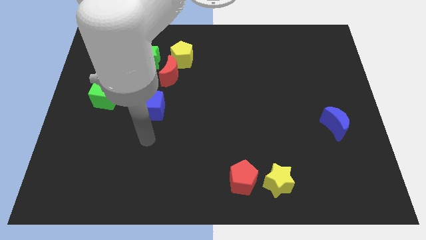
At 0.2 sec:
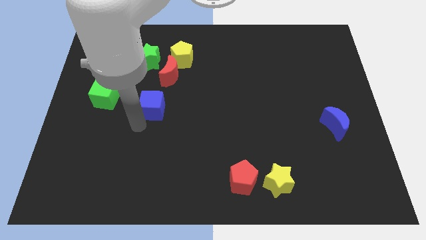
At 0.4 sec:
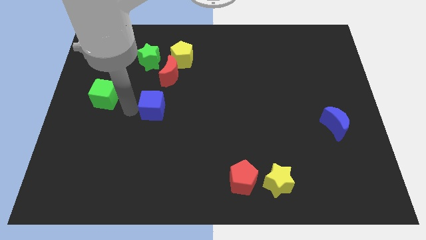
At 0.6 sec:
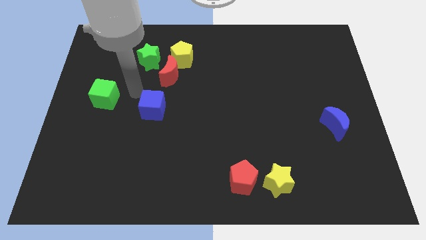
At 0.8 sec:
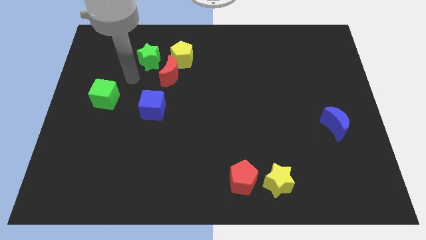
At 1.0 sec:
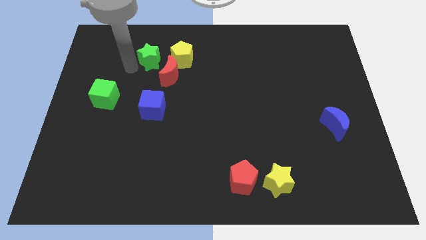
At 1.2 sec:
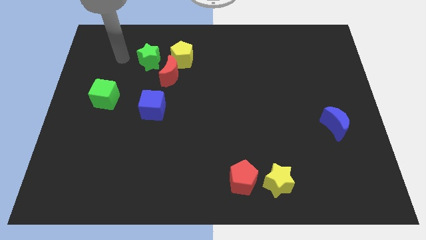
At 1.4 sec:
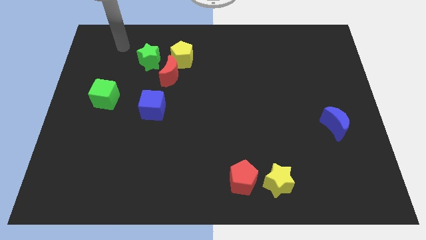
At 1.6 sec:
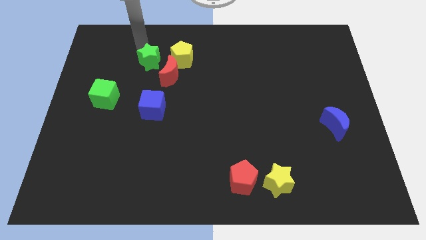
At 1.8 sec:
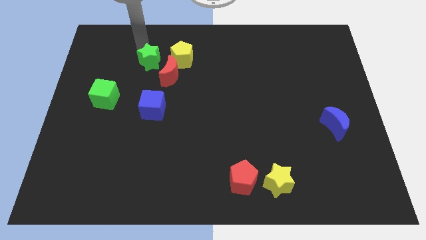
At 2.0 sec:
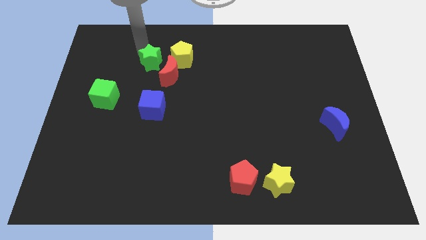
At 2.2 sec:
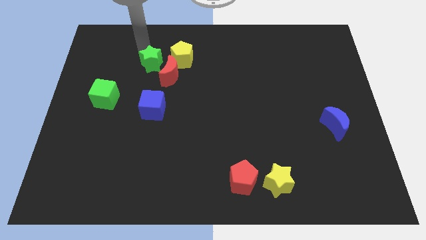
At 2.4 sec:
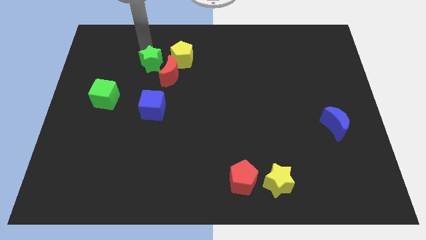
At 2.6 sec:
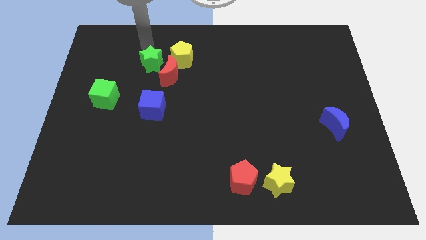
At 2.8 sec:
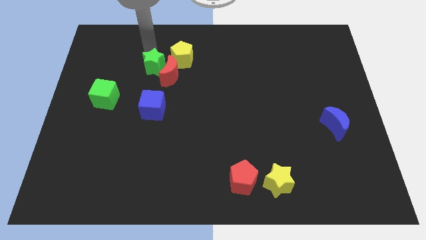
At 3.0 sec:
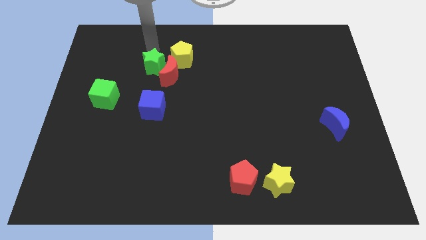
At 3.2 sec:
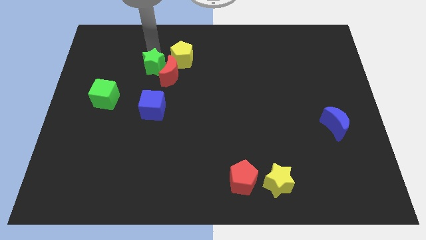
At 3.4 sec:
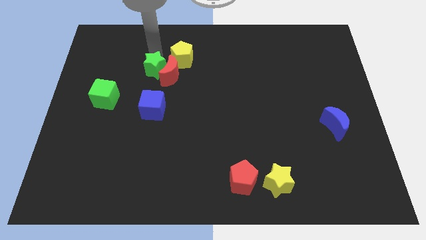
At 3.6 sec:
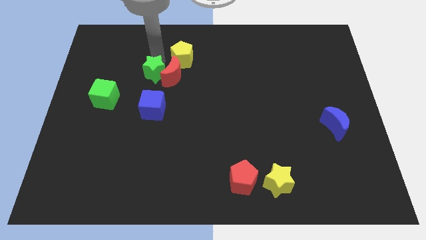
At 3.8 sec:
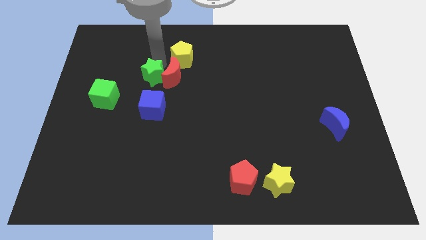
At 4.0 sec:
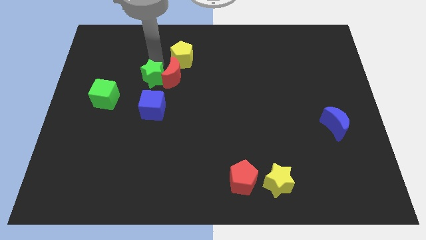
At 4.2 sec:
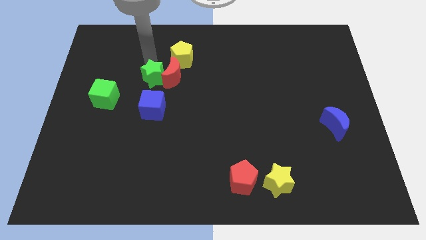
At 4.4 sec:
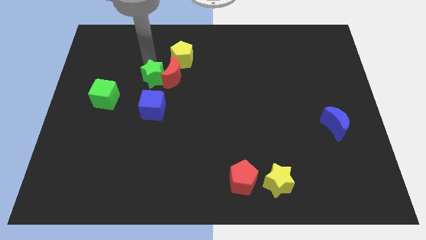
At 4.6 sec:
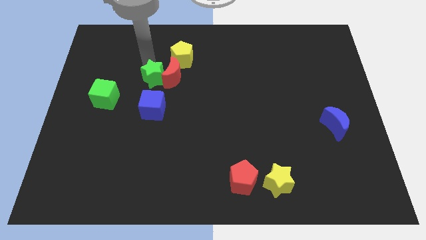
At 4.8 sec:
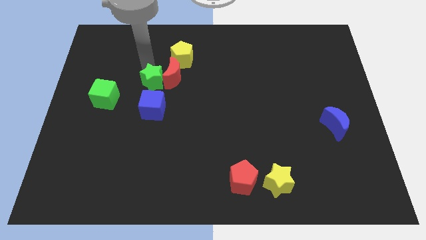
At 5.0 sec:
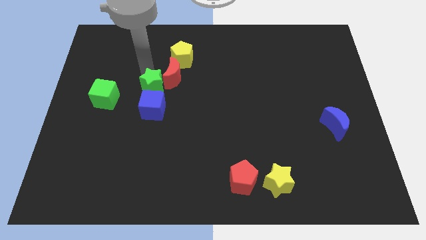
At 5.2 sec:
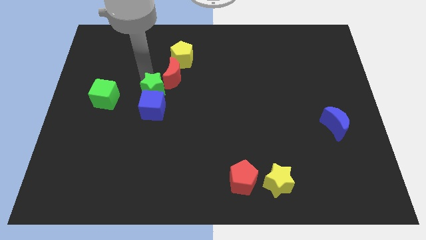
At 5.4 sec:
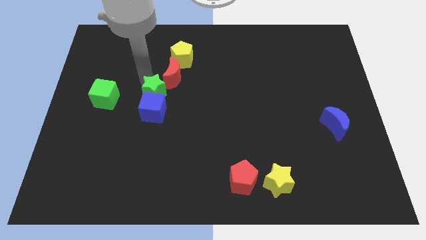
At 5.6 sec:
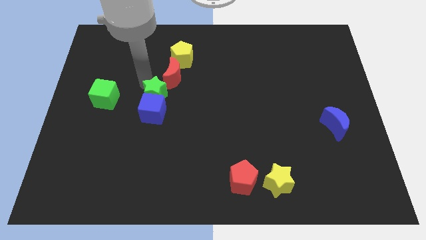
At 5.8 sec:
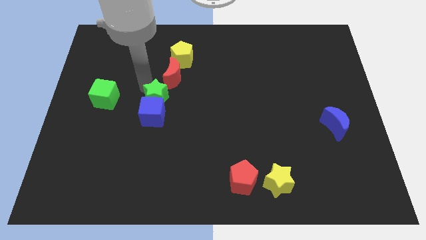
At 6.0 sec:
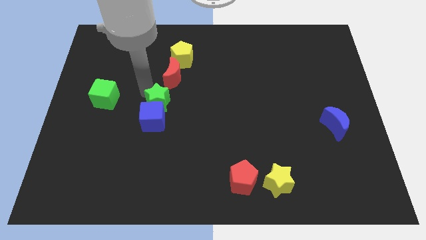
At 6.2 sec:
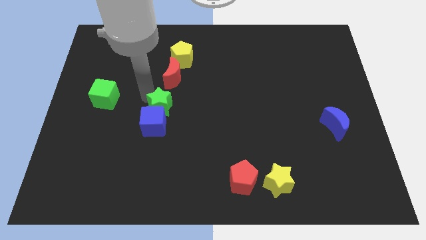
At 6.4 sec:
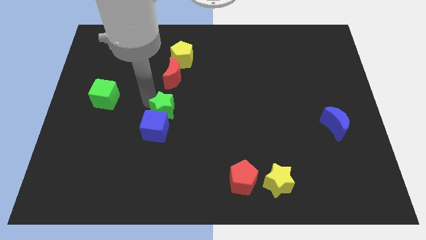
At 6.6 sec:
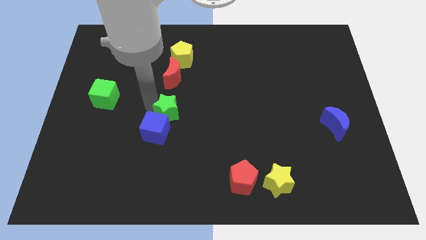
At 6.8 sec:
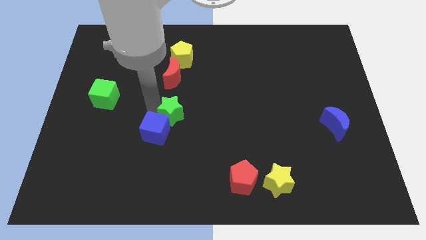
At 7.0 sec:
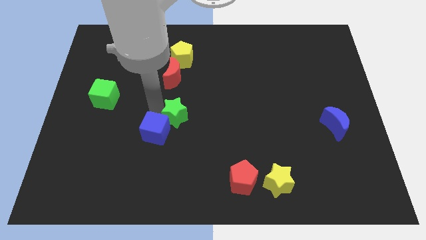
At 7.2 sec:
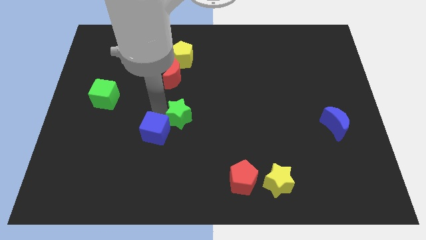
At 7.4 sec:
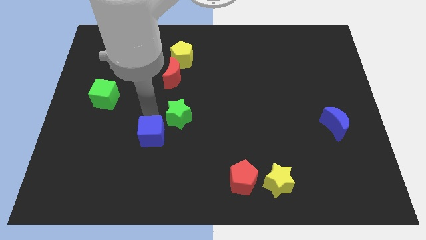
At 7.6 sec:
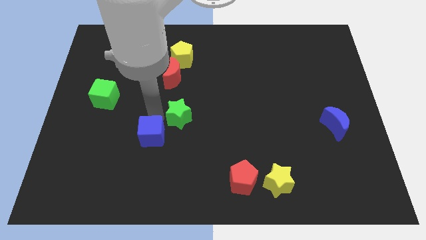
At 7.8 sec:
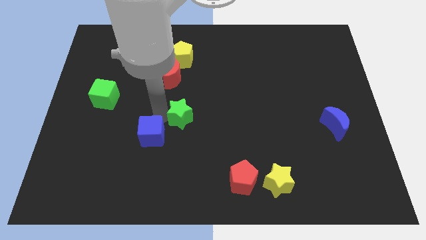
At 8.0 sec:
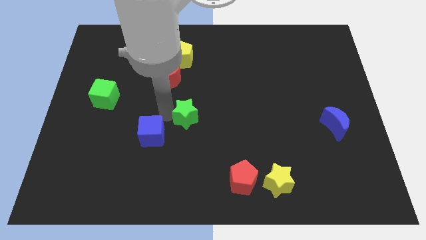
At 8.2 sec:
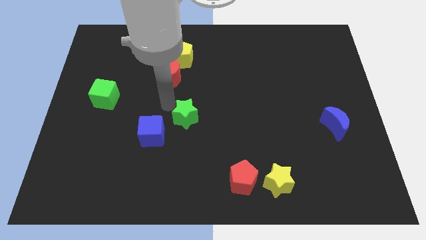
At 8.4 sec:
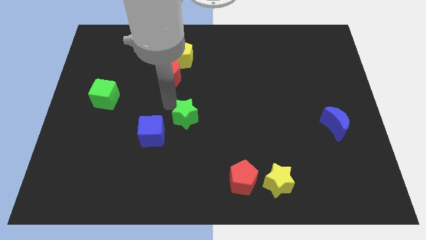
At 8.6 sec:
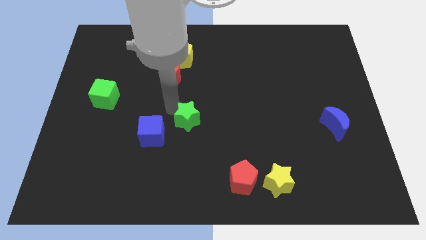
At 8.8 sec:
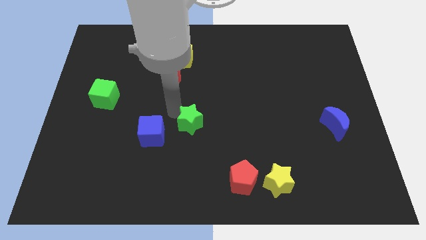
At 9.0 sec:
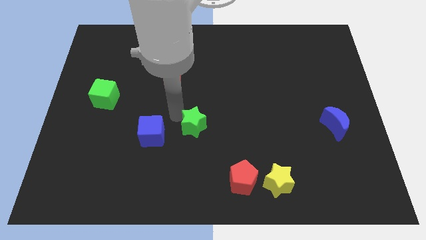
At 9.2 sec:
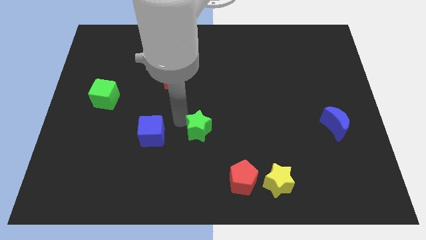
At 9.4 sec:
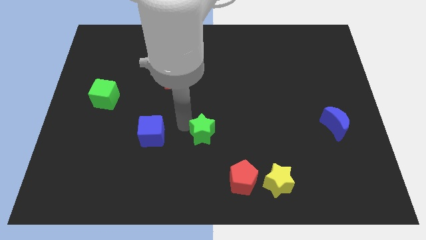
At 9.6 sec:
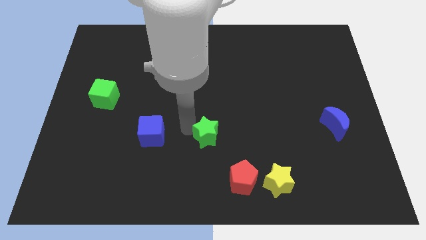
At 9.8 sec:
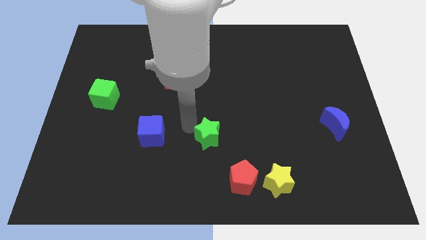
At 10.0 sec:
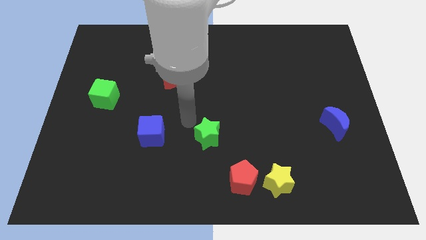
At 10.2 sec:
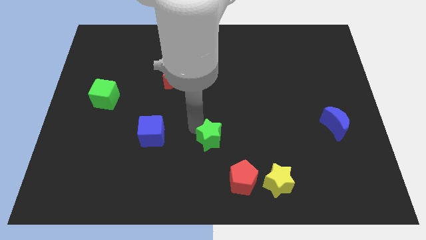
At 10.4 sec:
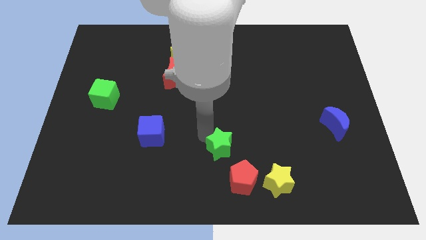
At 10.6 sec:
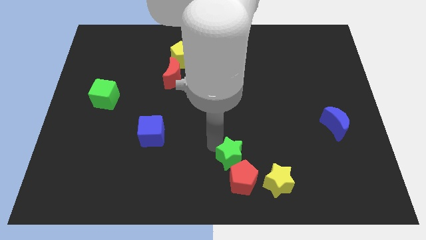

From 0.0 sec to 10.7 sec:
slide the green star to the top left side of the yellow star

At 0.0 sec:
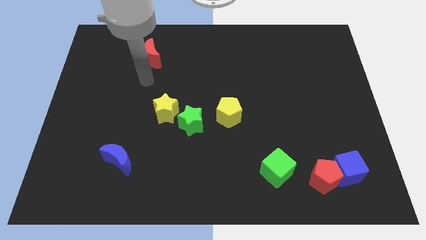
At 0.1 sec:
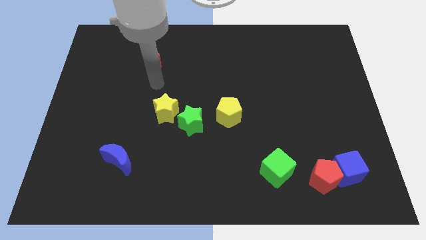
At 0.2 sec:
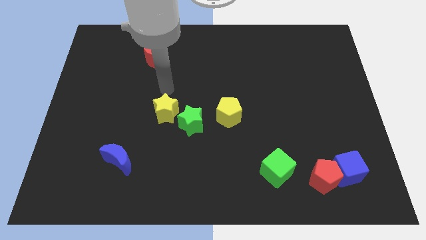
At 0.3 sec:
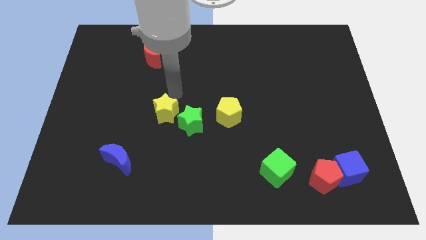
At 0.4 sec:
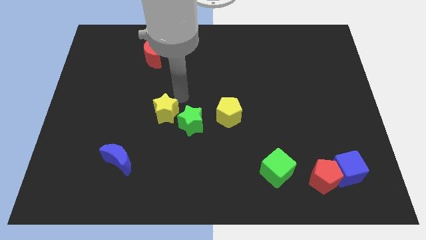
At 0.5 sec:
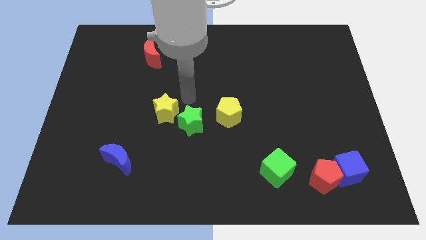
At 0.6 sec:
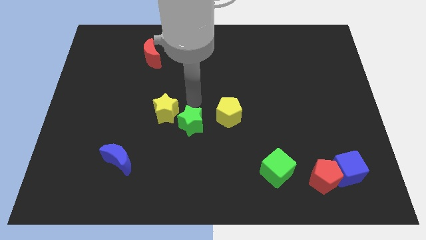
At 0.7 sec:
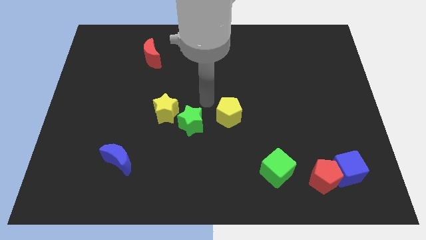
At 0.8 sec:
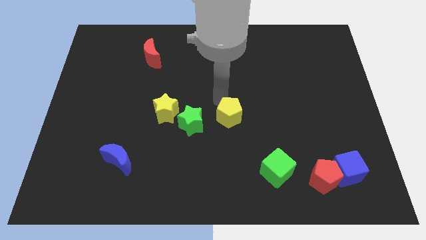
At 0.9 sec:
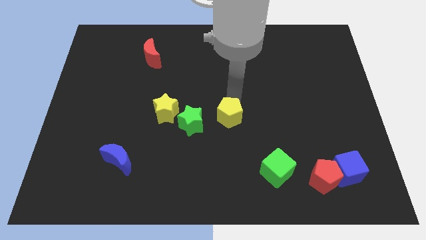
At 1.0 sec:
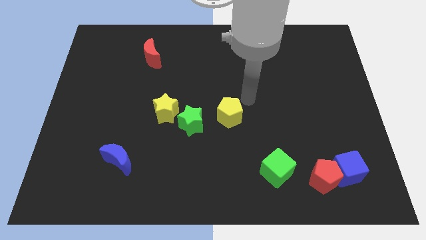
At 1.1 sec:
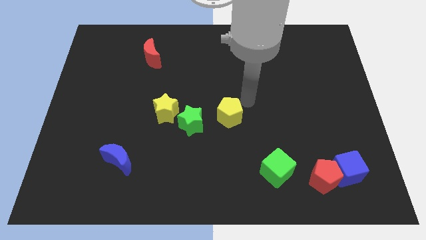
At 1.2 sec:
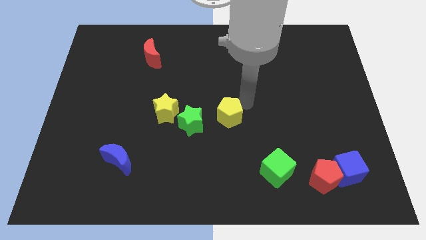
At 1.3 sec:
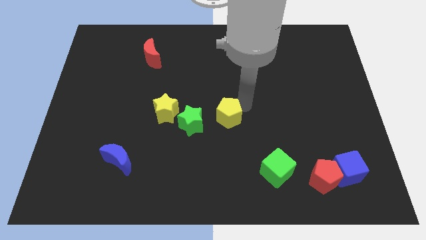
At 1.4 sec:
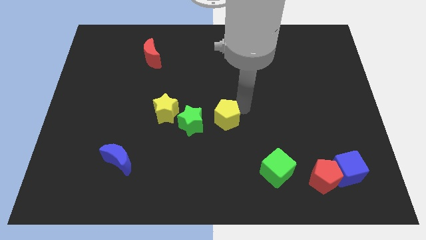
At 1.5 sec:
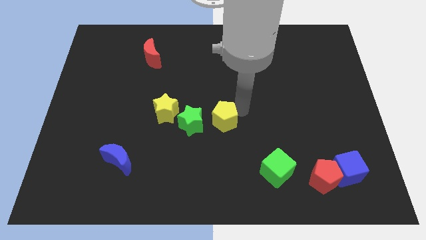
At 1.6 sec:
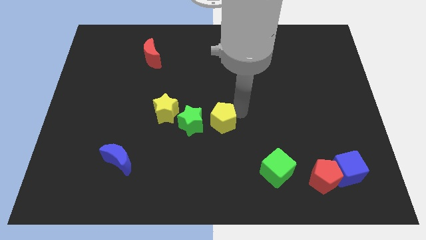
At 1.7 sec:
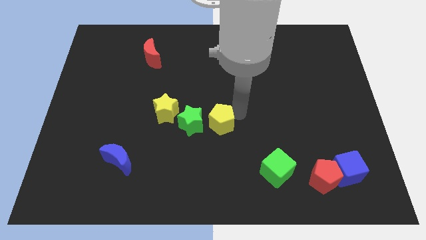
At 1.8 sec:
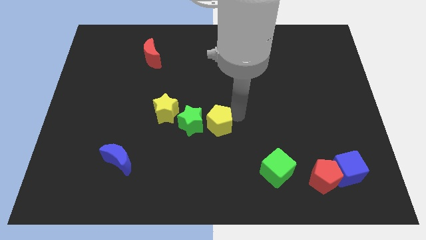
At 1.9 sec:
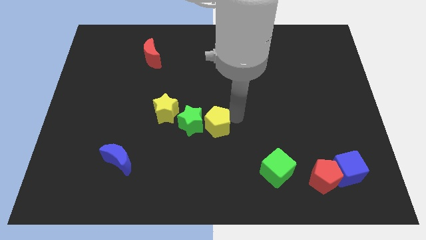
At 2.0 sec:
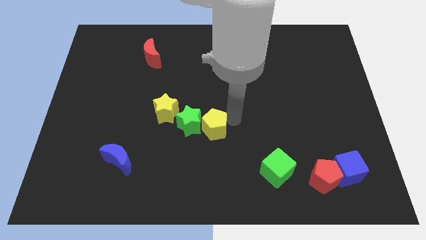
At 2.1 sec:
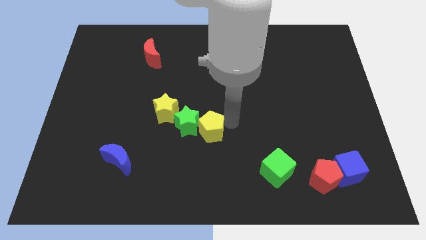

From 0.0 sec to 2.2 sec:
move the yellow pentagon to the bottom right side of the yellow star
